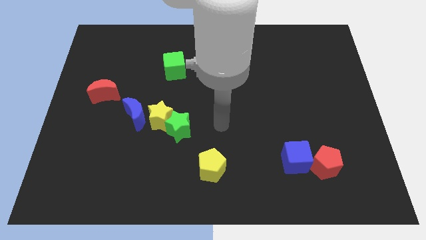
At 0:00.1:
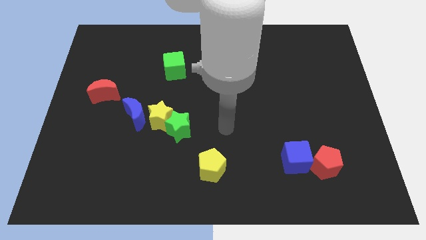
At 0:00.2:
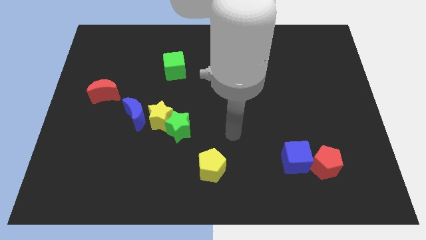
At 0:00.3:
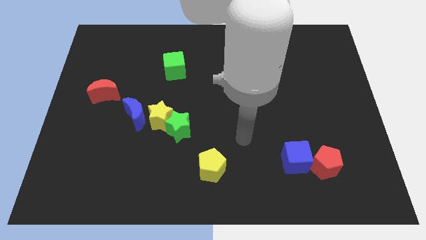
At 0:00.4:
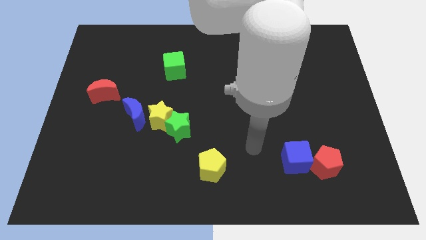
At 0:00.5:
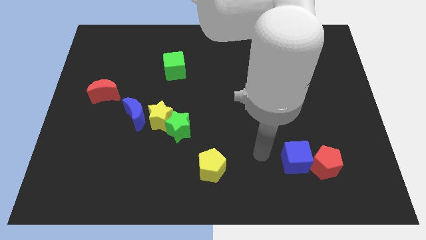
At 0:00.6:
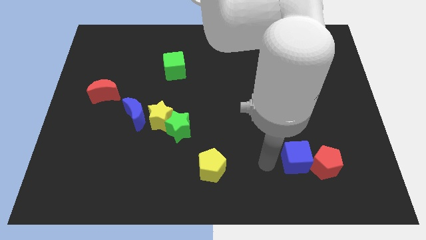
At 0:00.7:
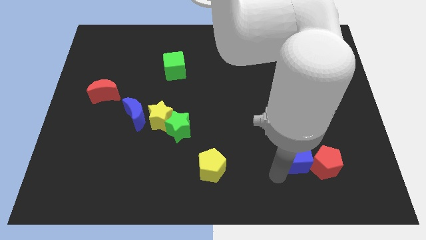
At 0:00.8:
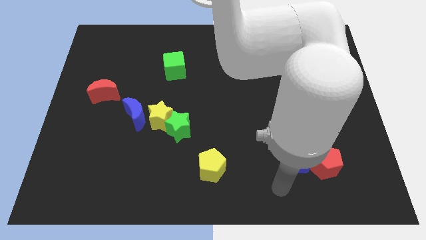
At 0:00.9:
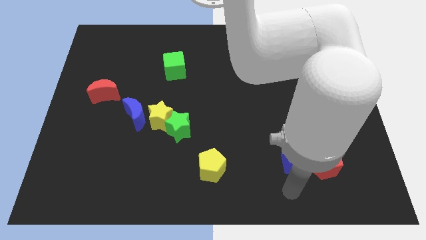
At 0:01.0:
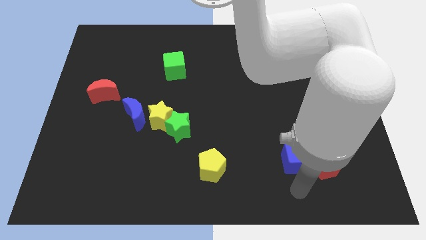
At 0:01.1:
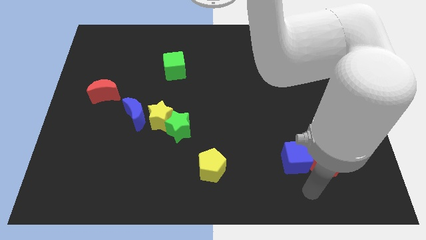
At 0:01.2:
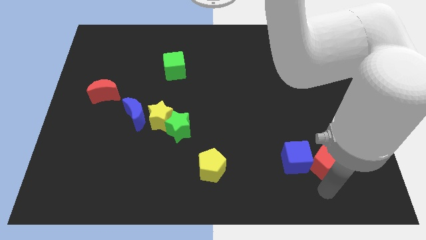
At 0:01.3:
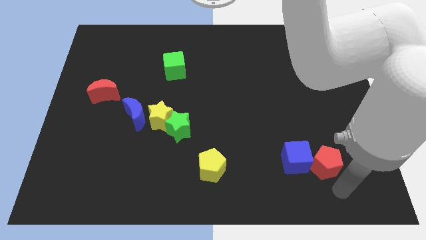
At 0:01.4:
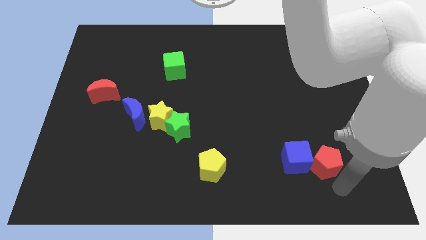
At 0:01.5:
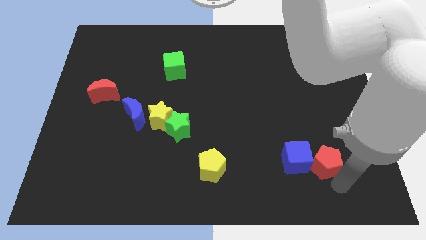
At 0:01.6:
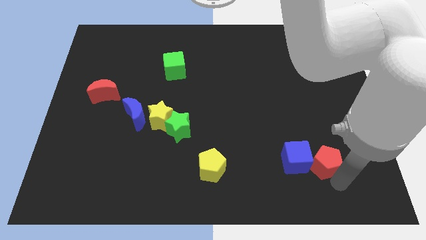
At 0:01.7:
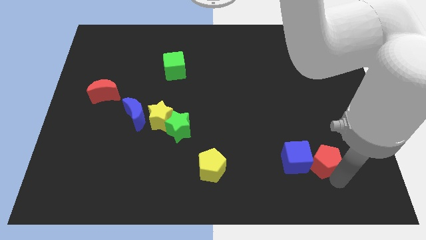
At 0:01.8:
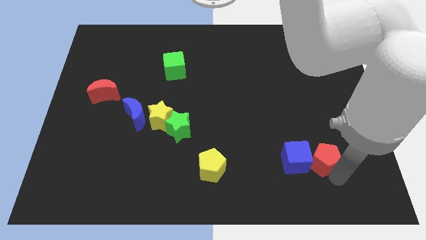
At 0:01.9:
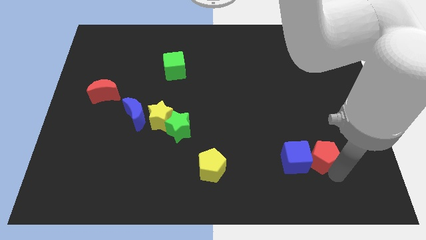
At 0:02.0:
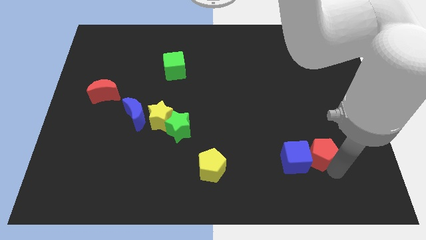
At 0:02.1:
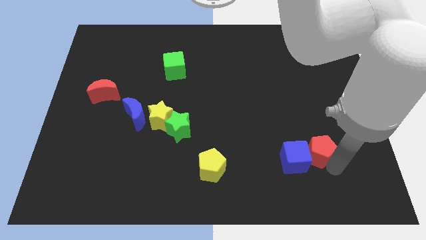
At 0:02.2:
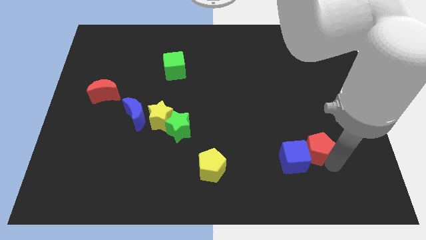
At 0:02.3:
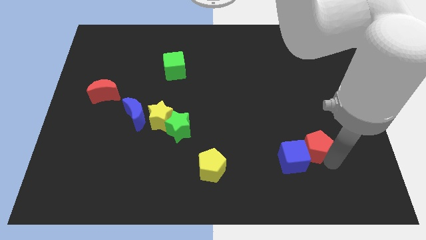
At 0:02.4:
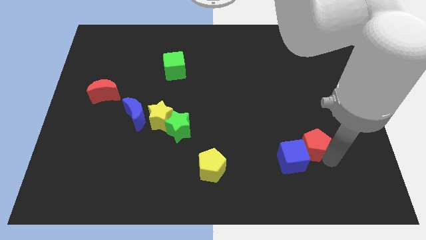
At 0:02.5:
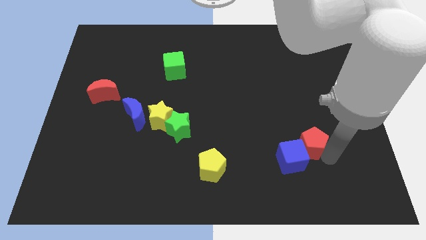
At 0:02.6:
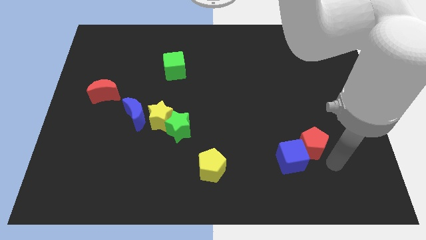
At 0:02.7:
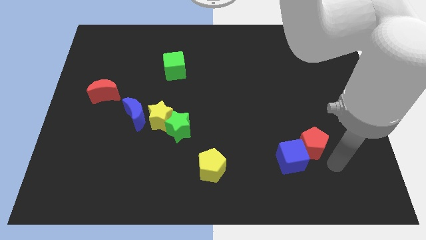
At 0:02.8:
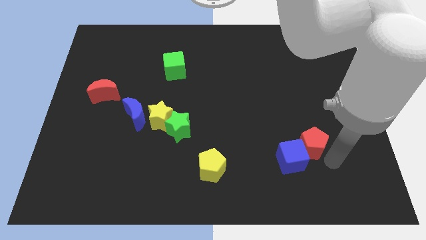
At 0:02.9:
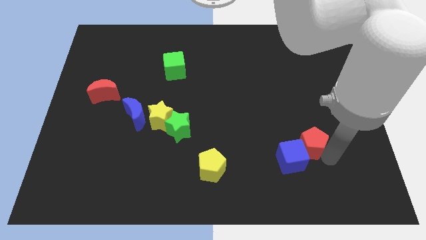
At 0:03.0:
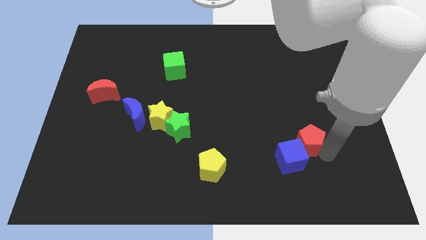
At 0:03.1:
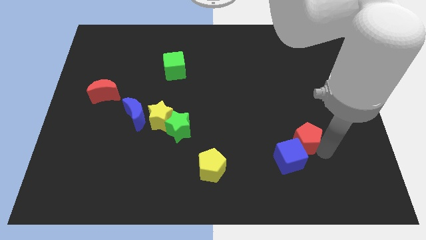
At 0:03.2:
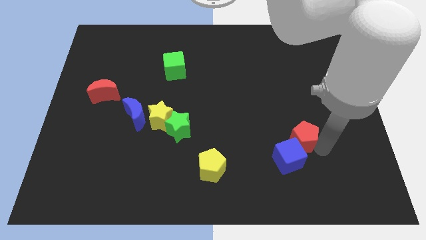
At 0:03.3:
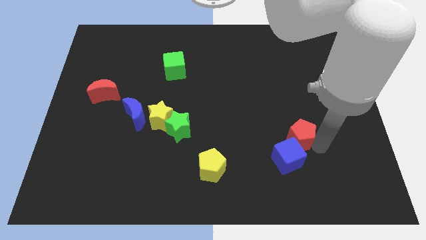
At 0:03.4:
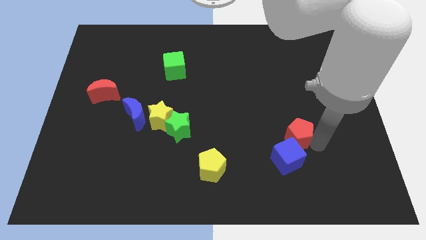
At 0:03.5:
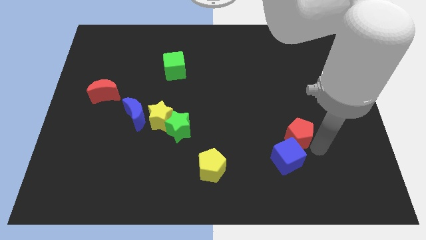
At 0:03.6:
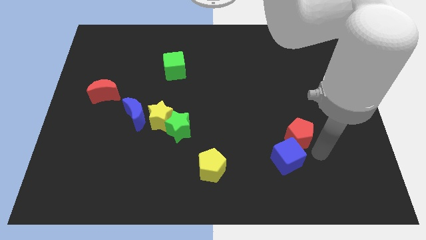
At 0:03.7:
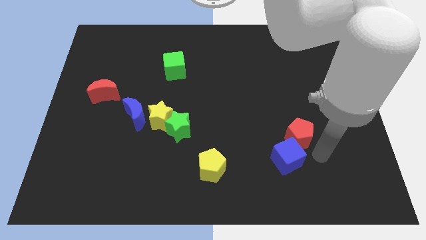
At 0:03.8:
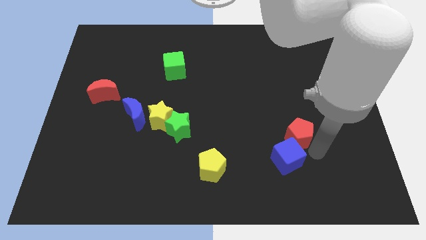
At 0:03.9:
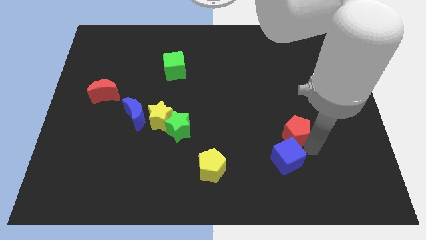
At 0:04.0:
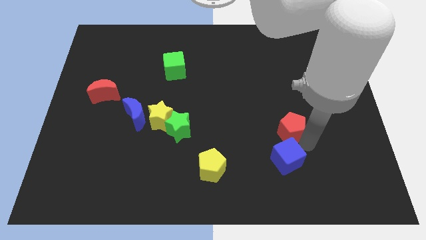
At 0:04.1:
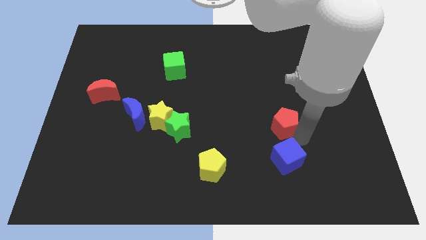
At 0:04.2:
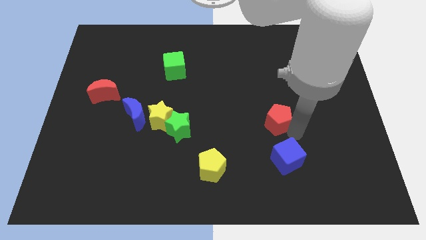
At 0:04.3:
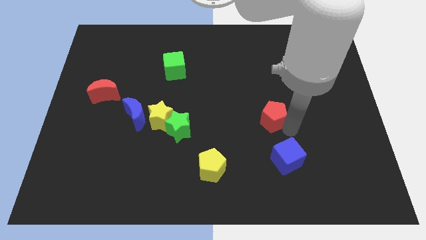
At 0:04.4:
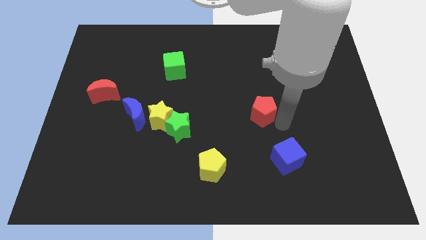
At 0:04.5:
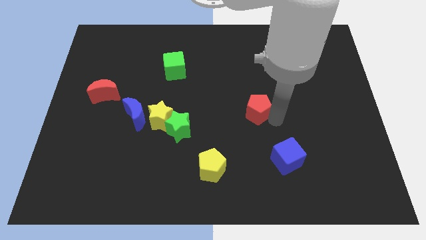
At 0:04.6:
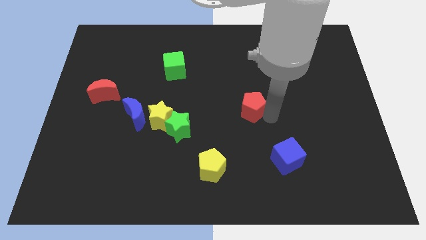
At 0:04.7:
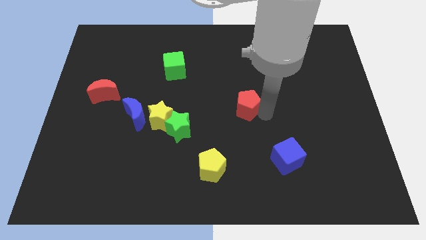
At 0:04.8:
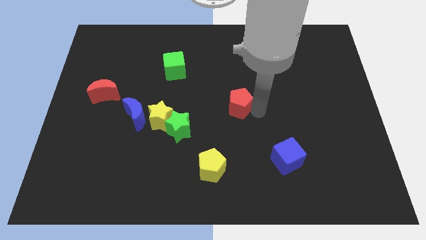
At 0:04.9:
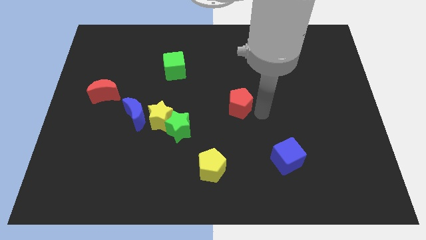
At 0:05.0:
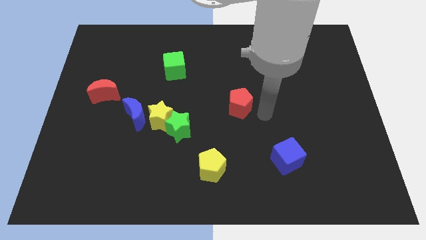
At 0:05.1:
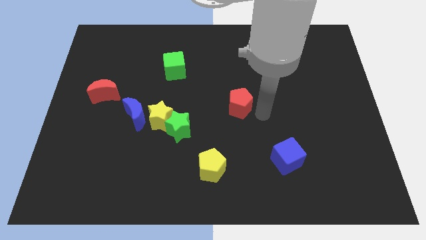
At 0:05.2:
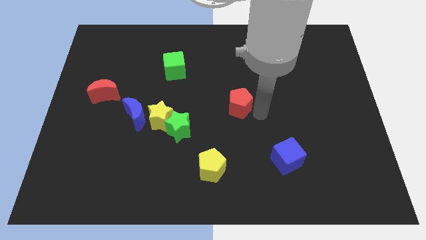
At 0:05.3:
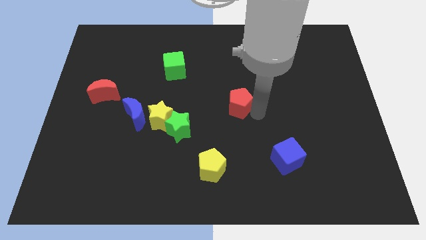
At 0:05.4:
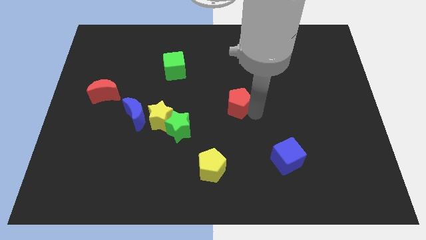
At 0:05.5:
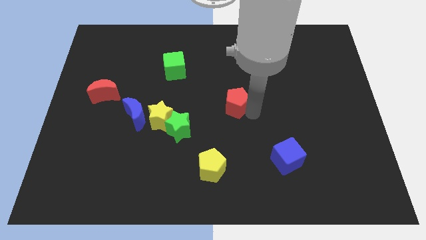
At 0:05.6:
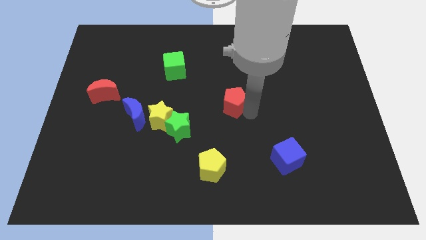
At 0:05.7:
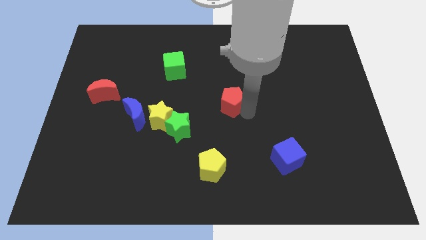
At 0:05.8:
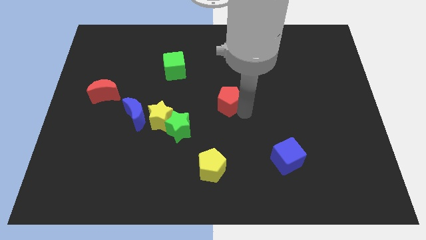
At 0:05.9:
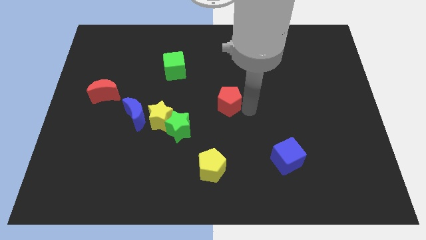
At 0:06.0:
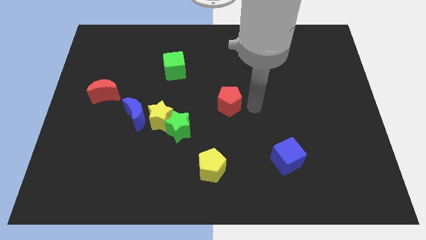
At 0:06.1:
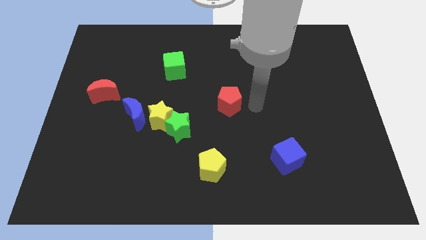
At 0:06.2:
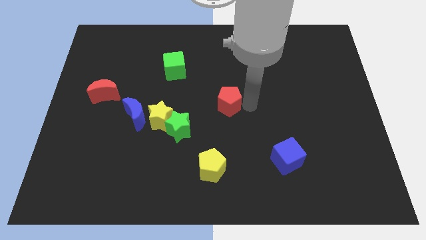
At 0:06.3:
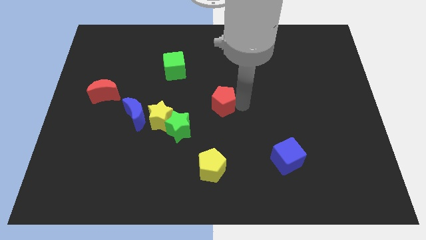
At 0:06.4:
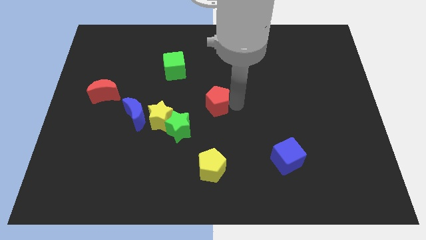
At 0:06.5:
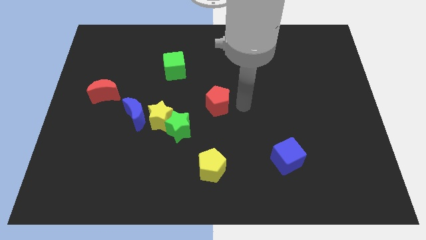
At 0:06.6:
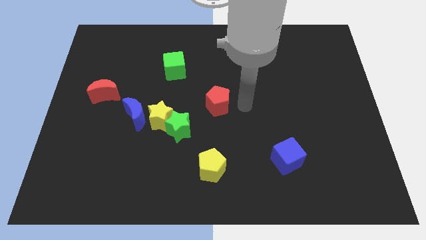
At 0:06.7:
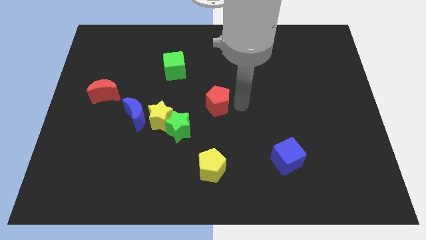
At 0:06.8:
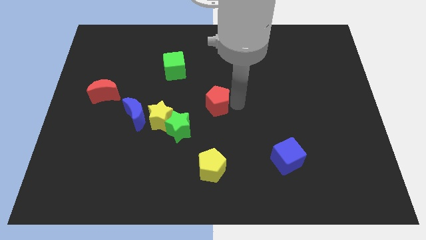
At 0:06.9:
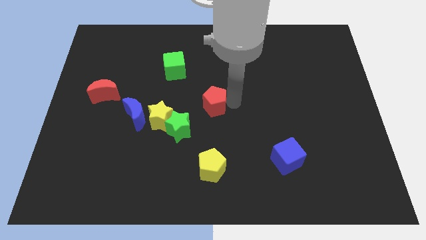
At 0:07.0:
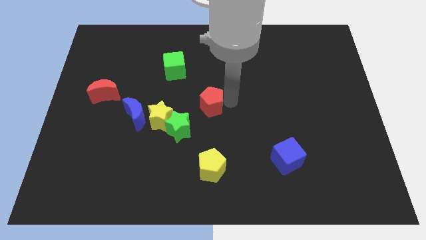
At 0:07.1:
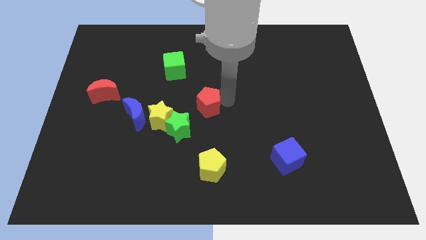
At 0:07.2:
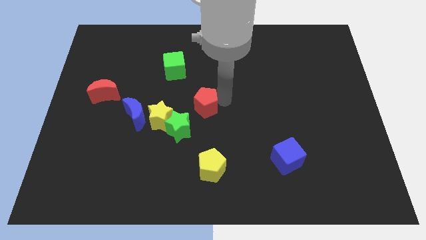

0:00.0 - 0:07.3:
put the red pentagon diagonally up and to the right of the yellow star
